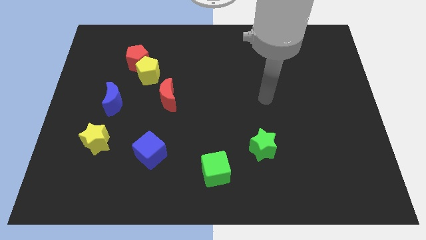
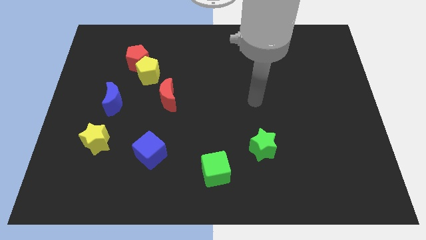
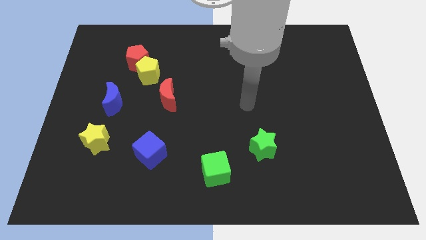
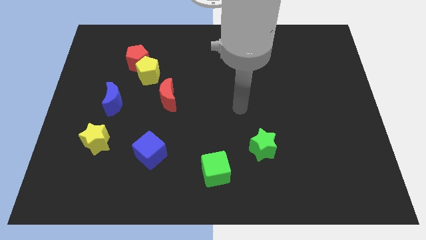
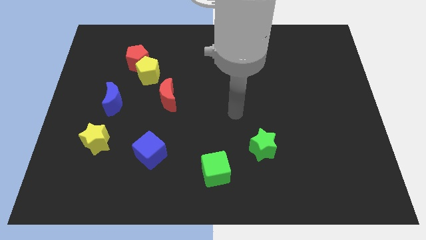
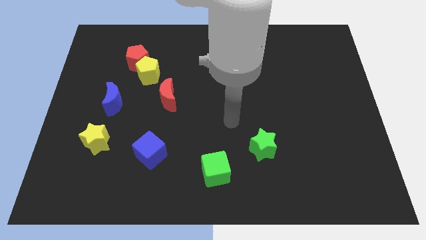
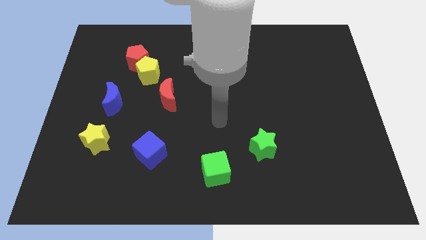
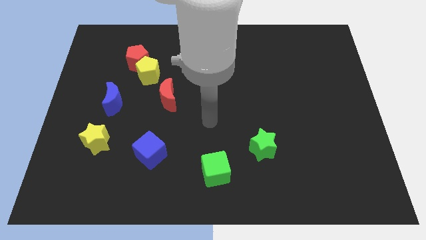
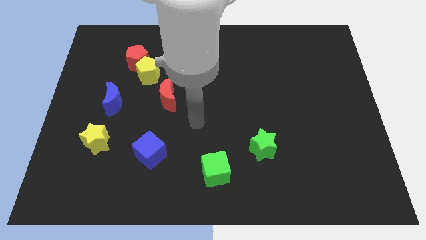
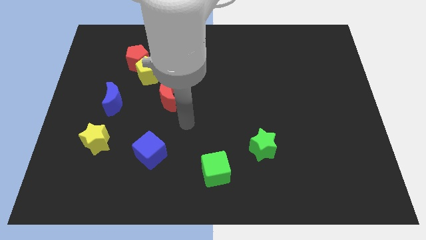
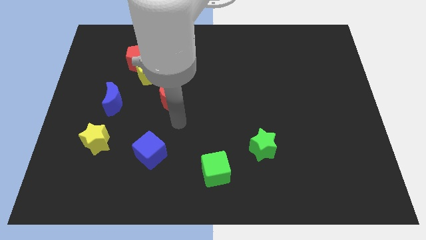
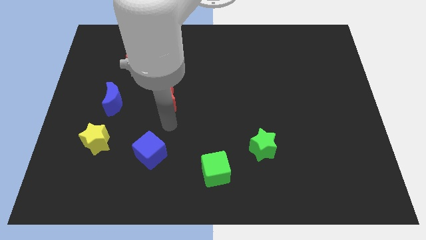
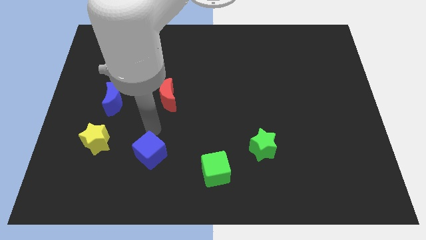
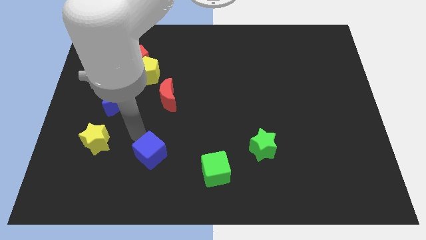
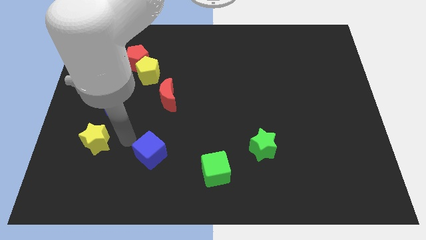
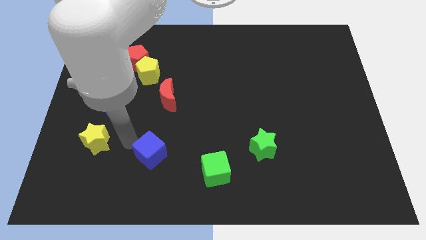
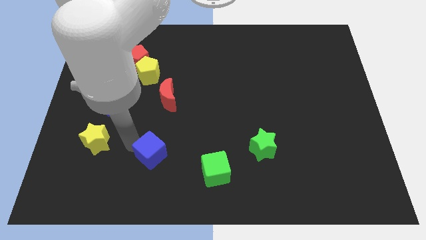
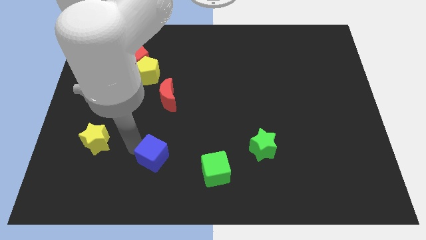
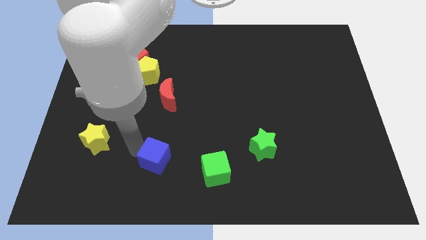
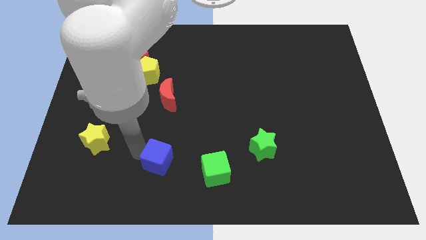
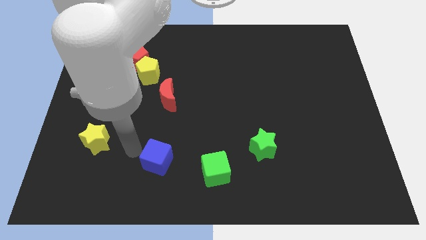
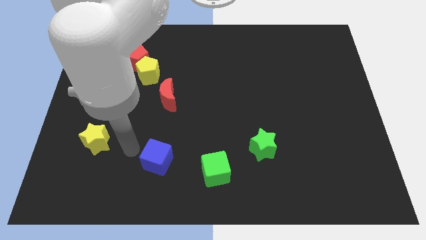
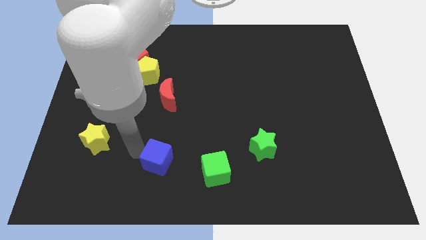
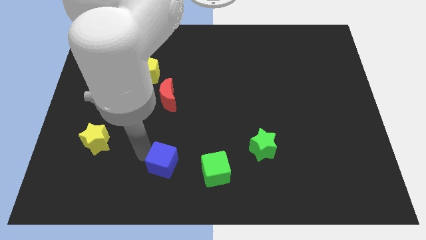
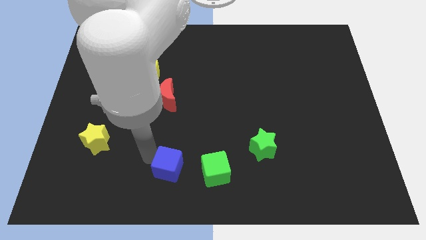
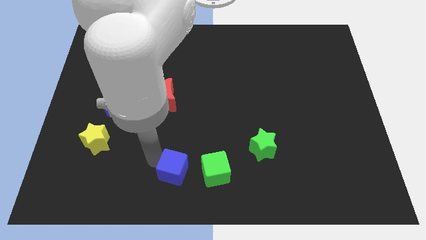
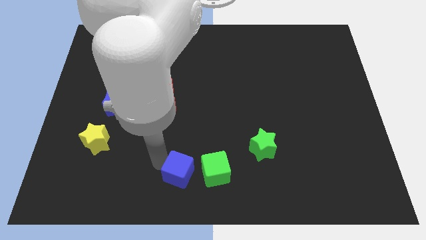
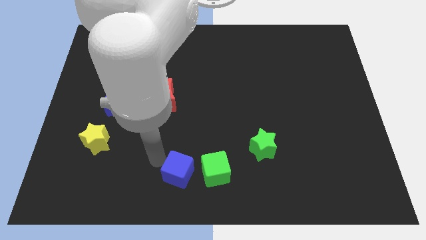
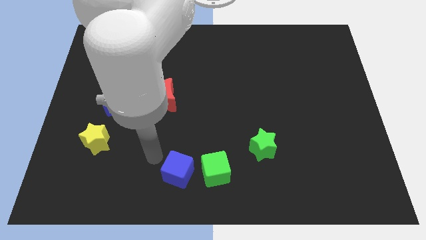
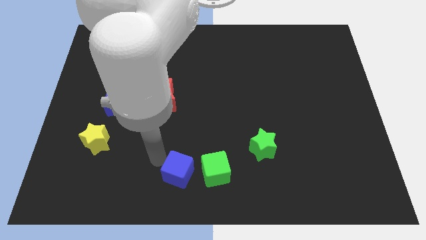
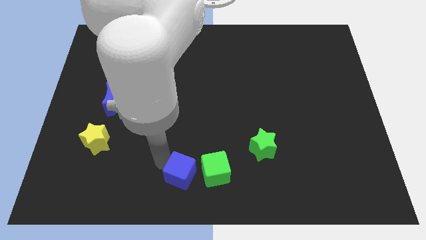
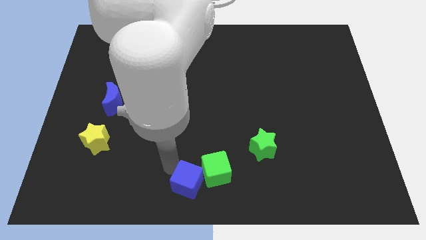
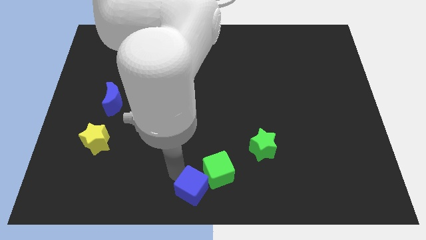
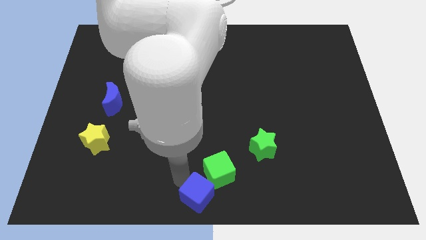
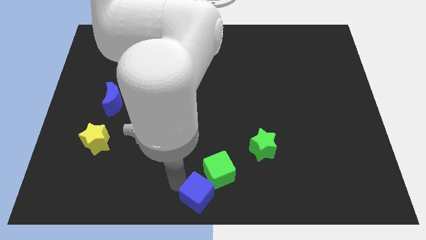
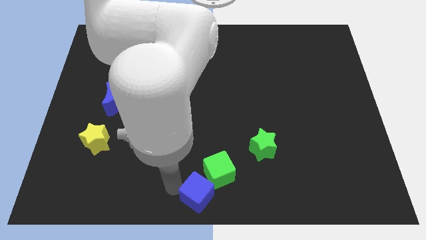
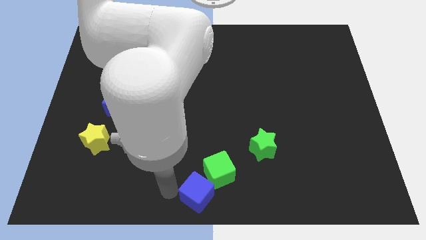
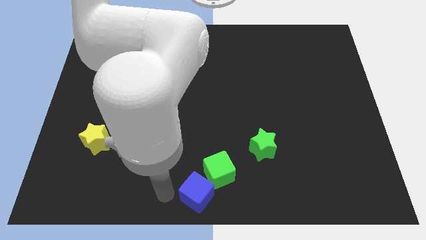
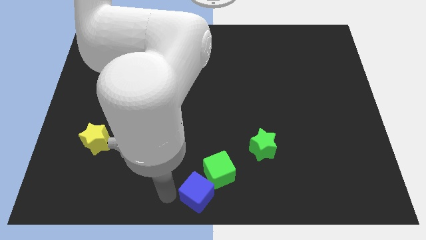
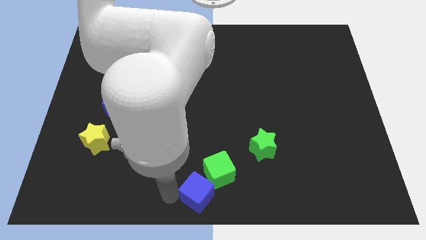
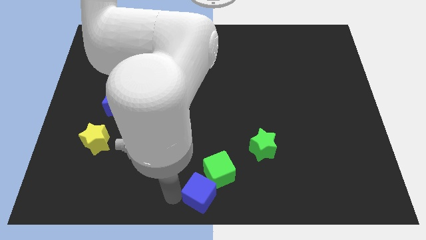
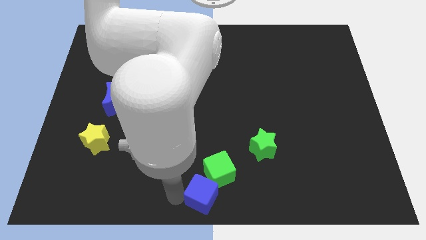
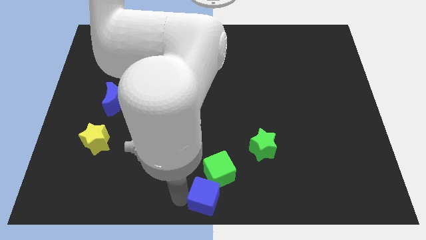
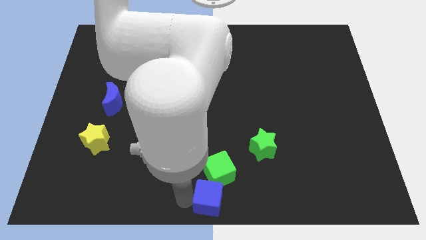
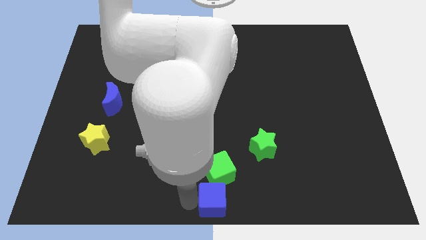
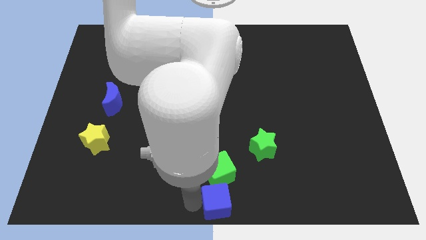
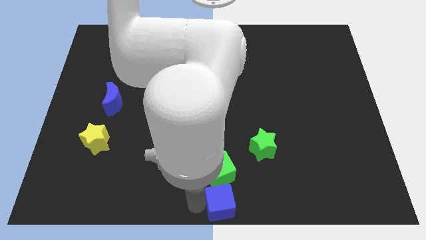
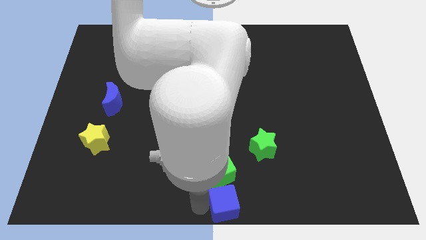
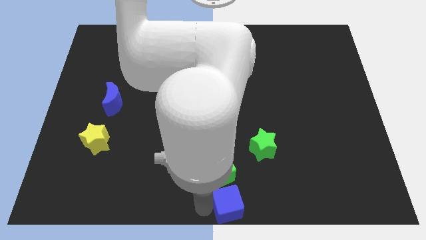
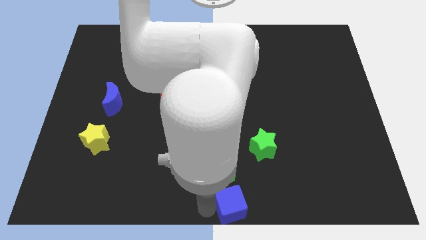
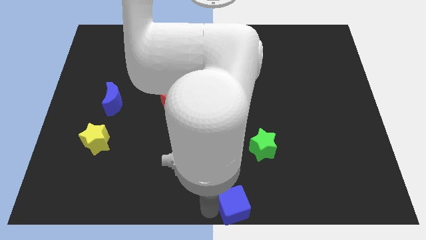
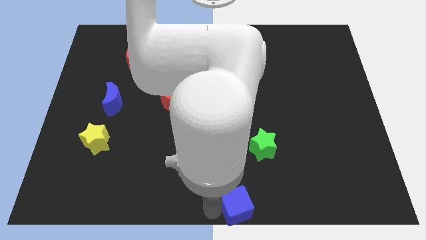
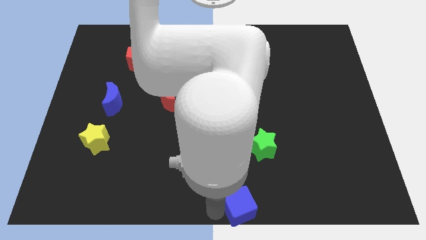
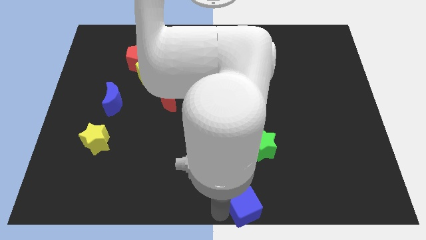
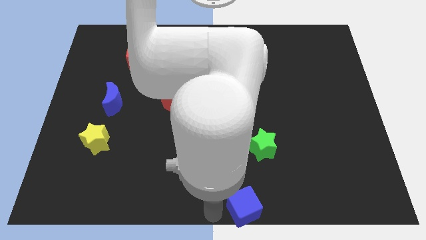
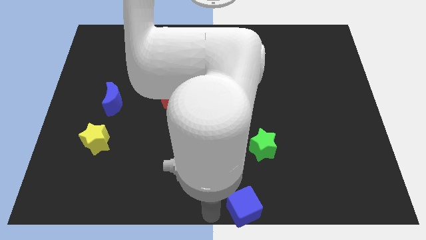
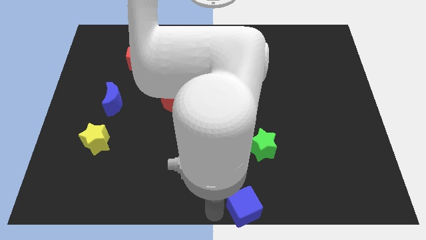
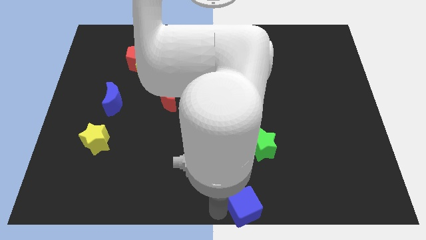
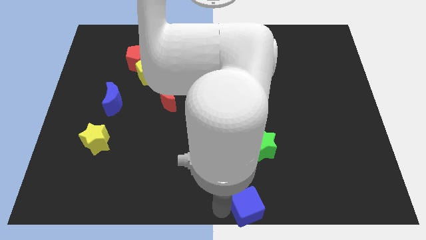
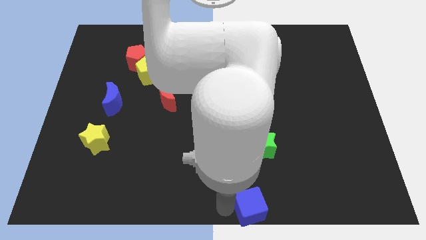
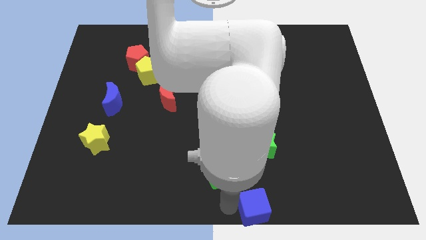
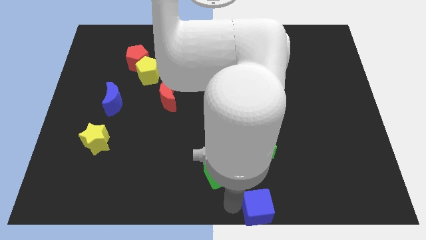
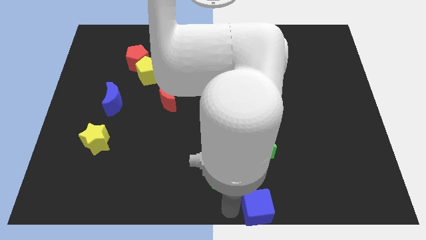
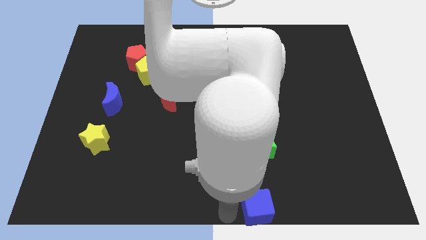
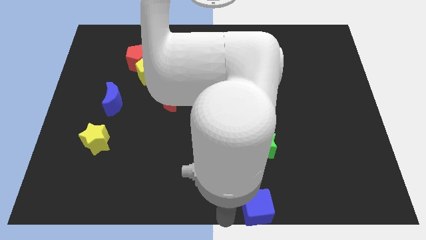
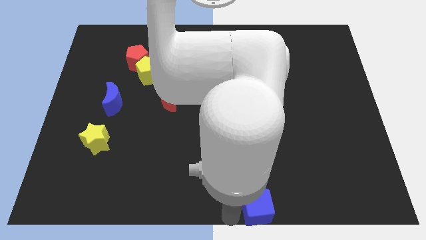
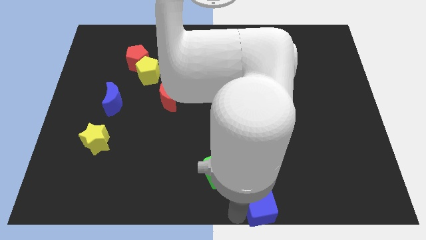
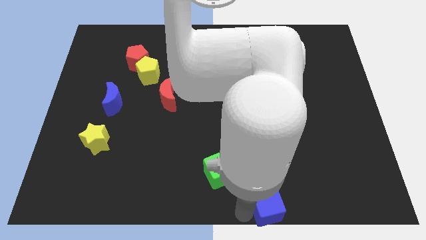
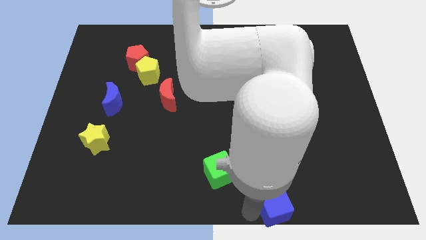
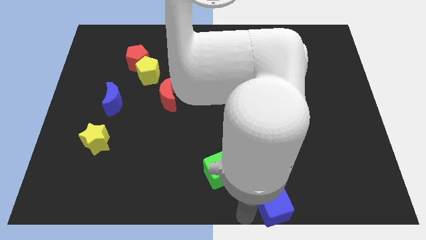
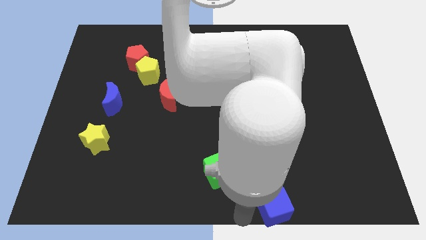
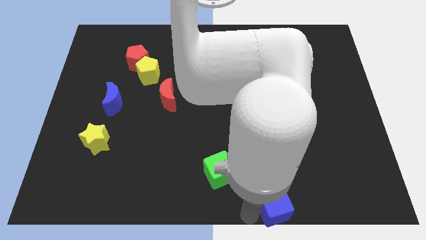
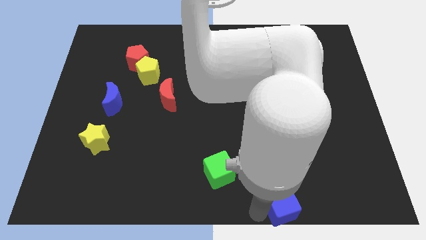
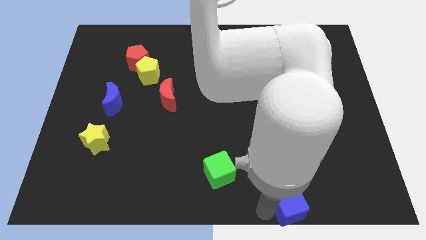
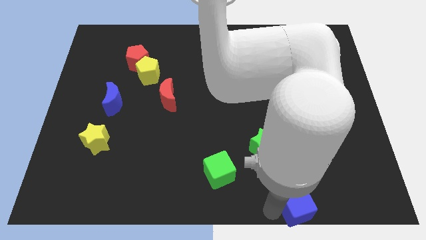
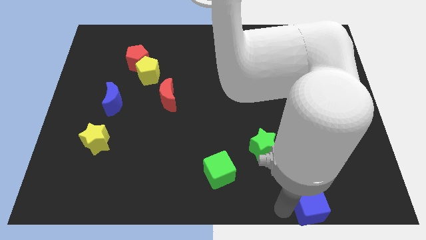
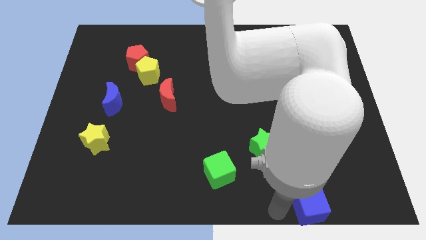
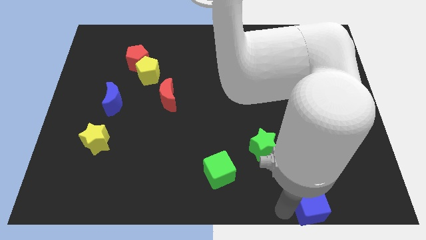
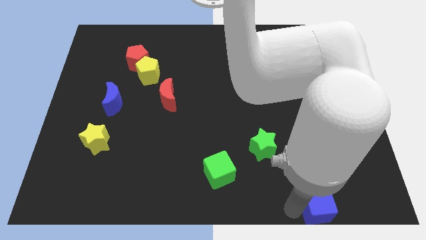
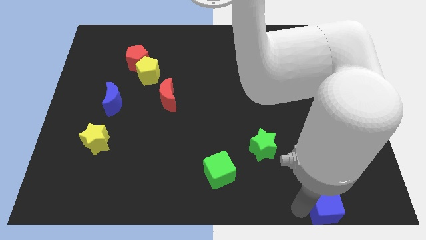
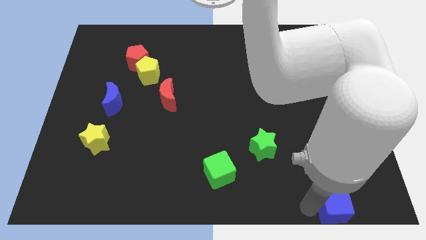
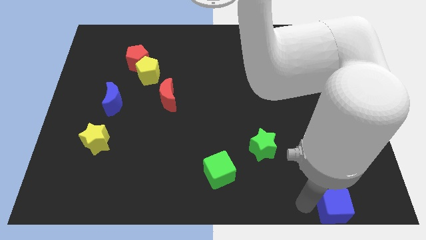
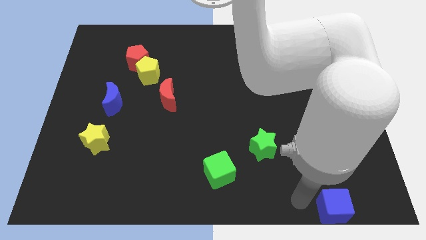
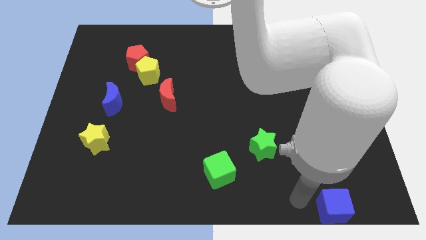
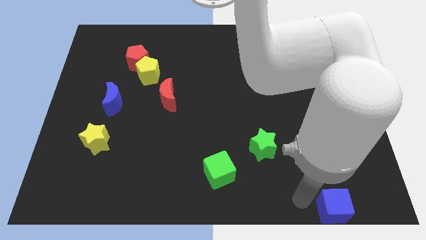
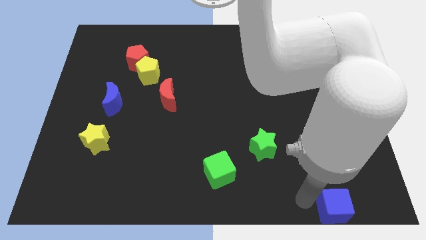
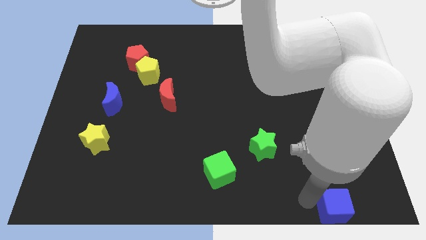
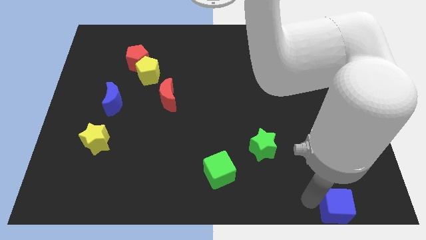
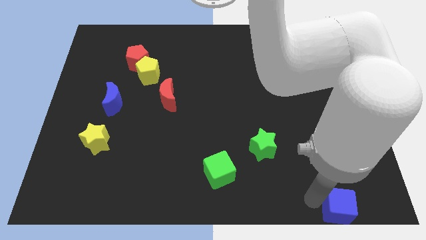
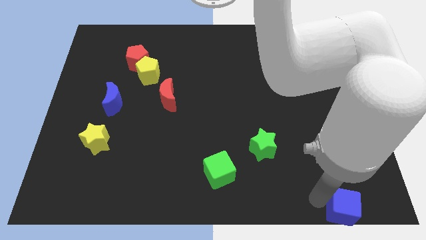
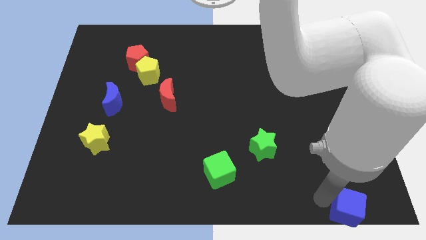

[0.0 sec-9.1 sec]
move the blue cube to the bottom right
